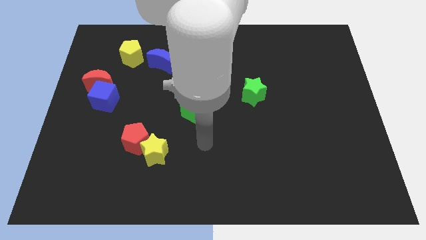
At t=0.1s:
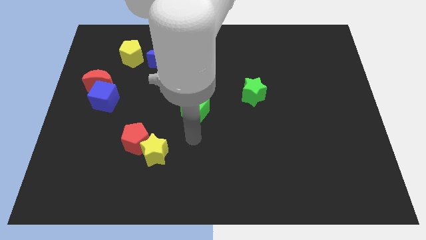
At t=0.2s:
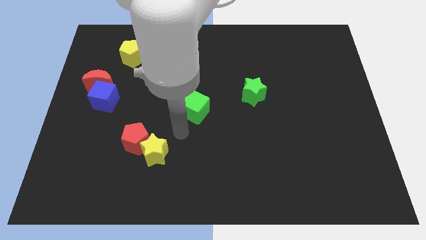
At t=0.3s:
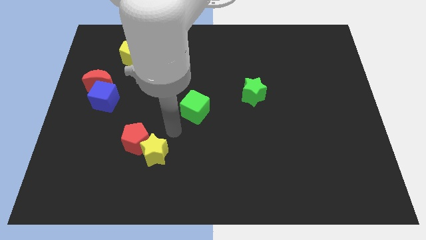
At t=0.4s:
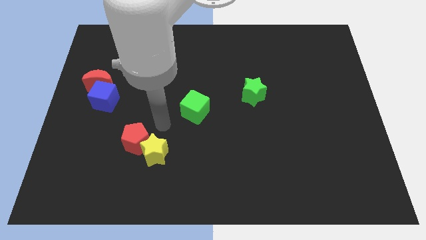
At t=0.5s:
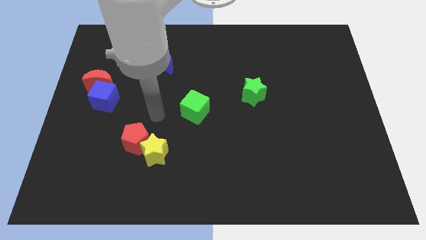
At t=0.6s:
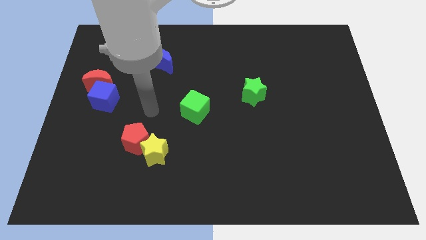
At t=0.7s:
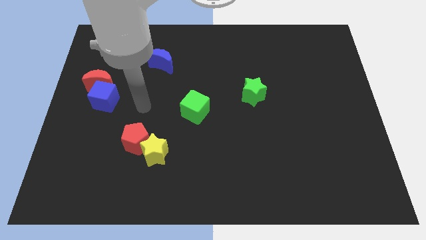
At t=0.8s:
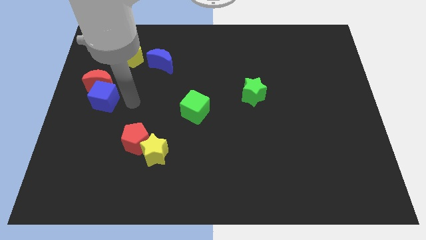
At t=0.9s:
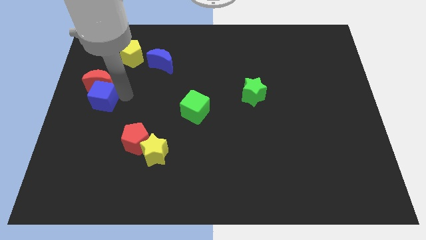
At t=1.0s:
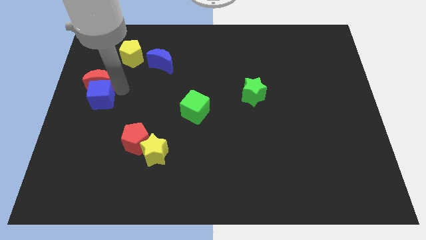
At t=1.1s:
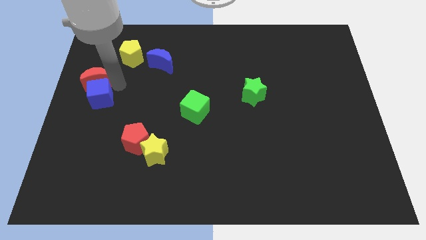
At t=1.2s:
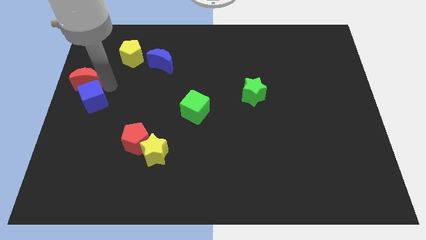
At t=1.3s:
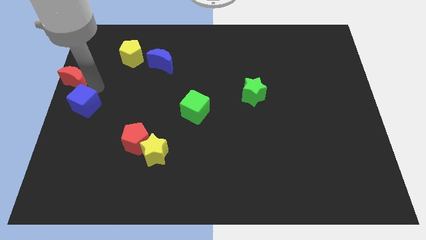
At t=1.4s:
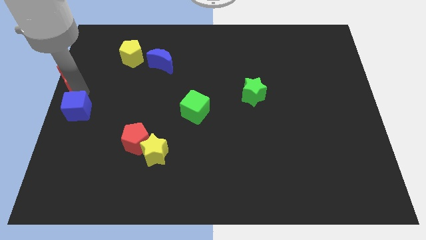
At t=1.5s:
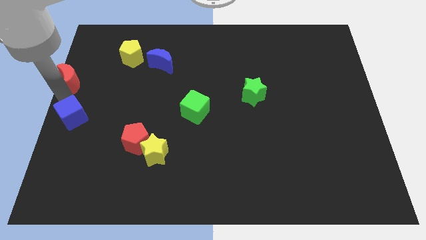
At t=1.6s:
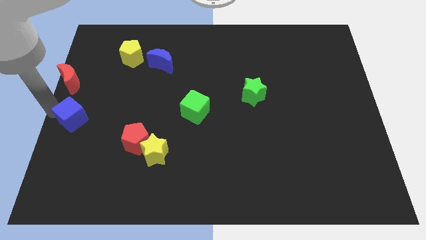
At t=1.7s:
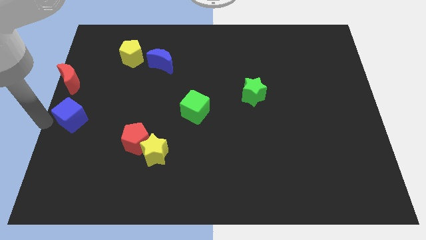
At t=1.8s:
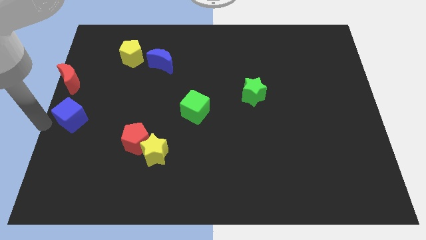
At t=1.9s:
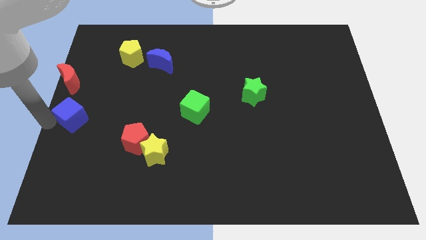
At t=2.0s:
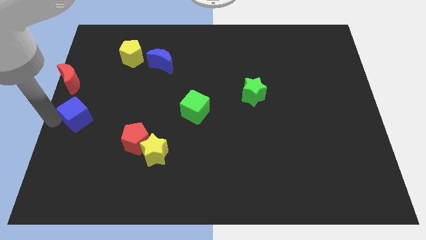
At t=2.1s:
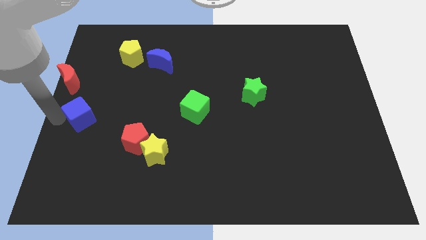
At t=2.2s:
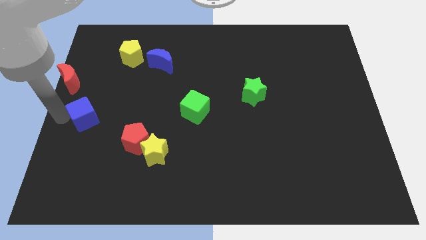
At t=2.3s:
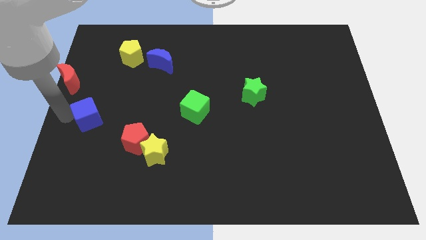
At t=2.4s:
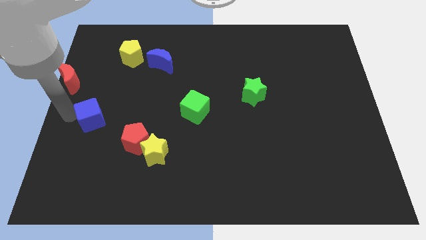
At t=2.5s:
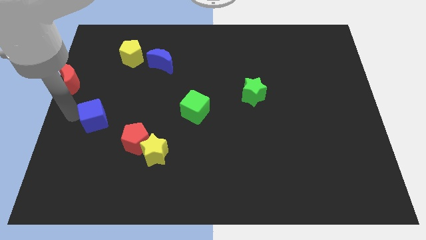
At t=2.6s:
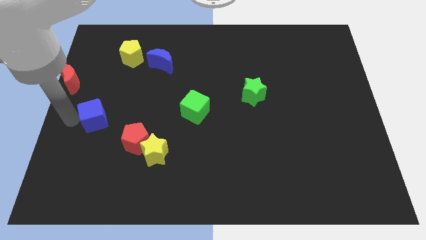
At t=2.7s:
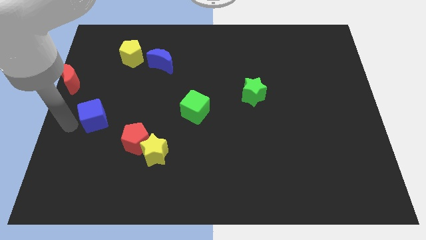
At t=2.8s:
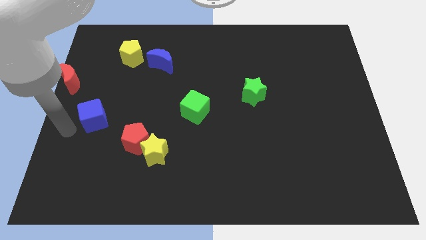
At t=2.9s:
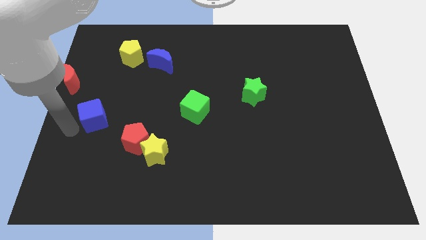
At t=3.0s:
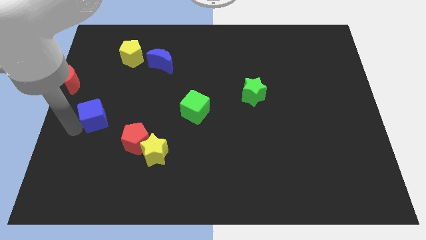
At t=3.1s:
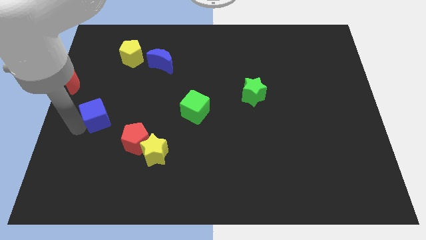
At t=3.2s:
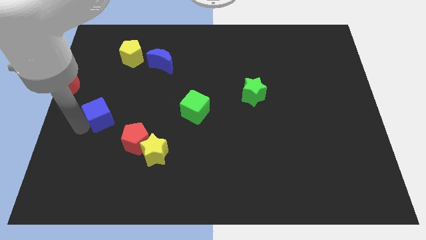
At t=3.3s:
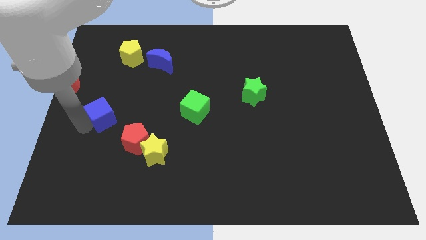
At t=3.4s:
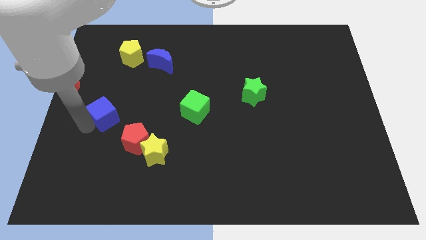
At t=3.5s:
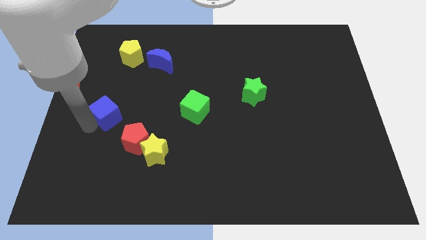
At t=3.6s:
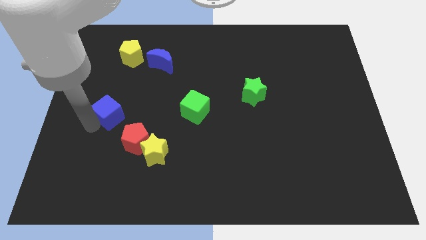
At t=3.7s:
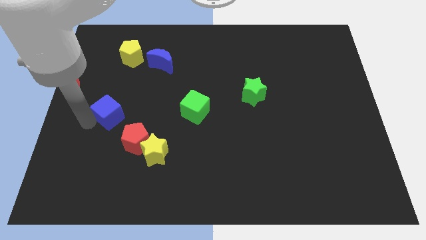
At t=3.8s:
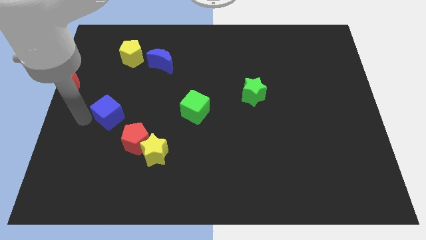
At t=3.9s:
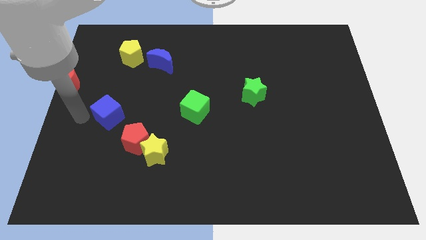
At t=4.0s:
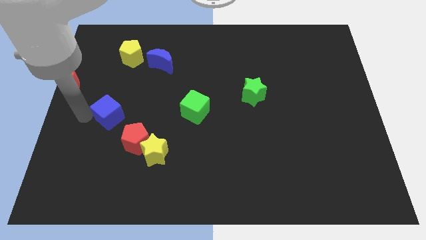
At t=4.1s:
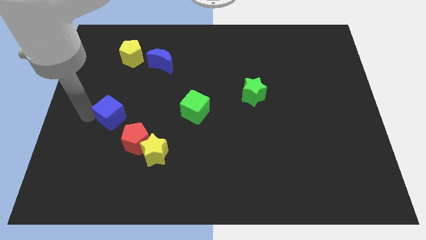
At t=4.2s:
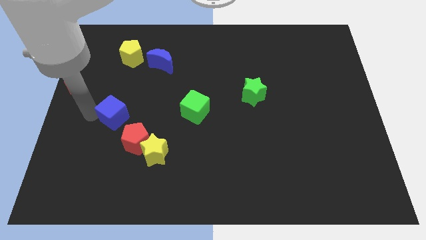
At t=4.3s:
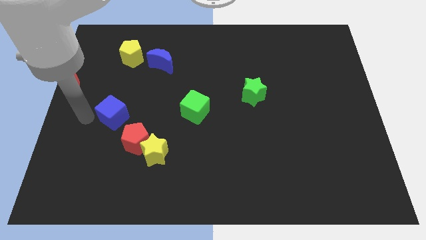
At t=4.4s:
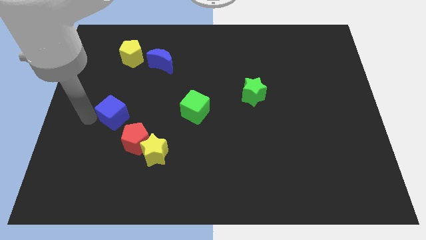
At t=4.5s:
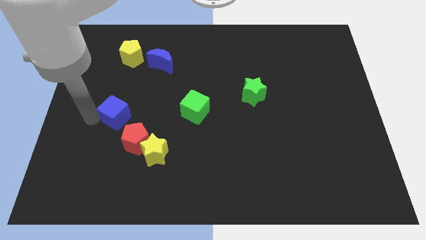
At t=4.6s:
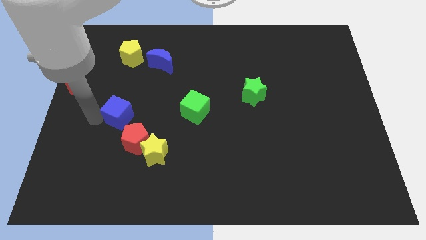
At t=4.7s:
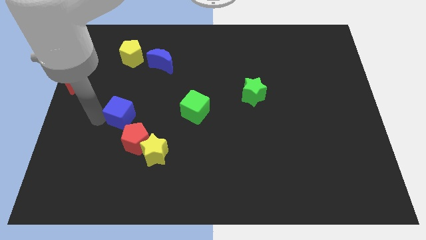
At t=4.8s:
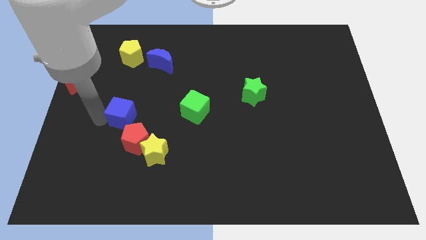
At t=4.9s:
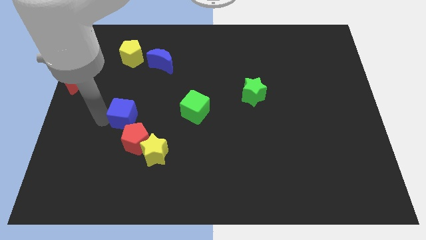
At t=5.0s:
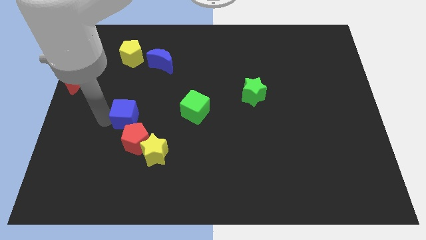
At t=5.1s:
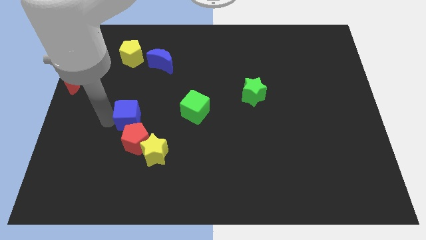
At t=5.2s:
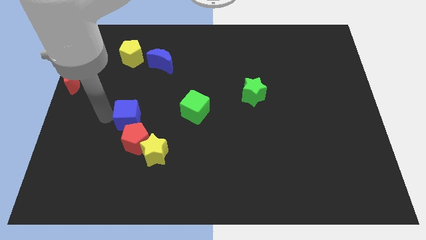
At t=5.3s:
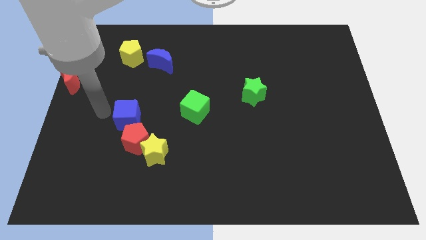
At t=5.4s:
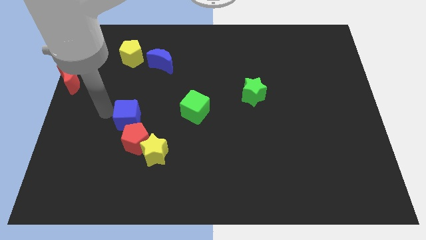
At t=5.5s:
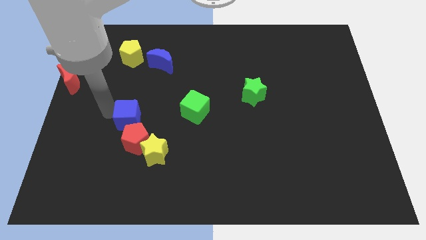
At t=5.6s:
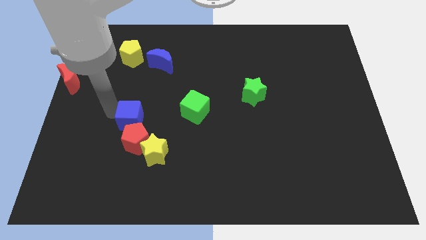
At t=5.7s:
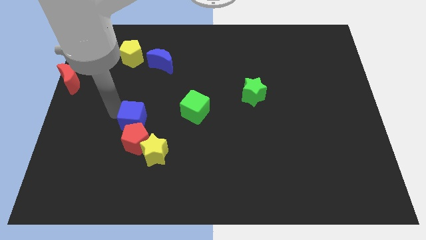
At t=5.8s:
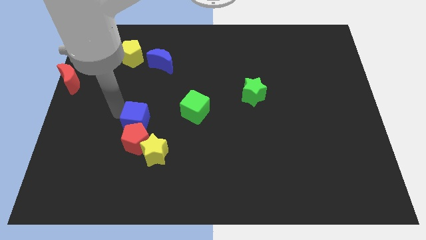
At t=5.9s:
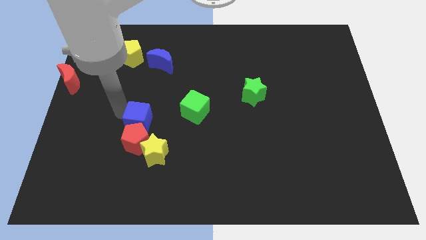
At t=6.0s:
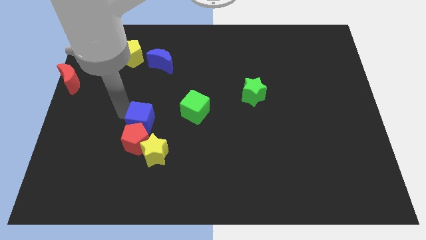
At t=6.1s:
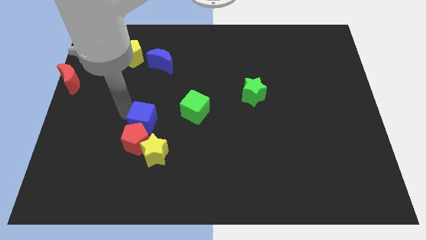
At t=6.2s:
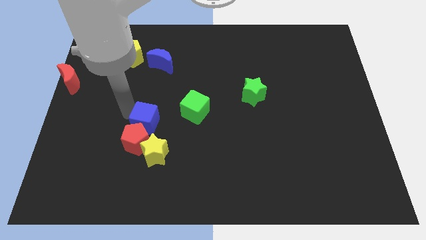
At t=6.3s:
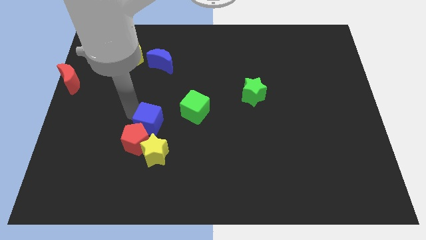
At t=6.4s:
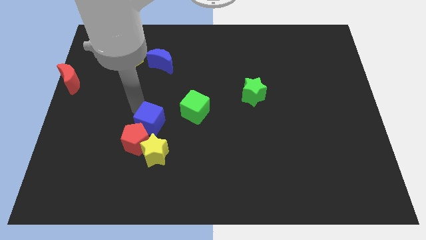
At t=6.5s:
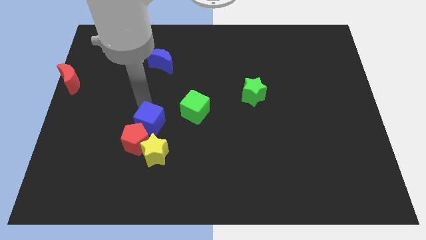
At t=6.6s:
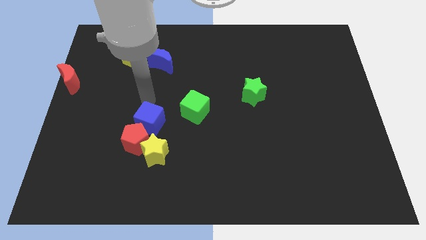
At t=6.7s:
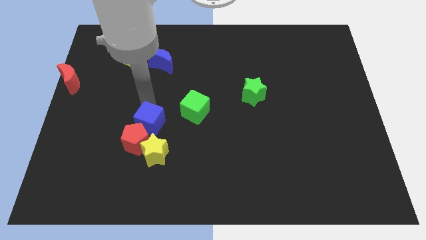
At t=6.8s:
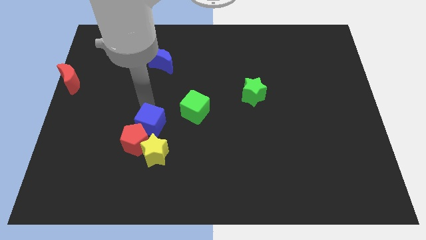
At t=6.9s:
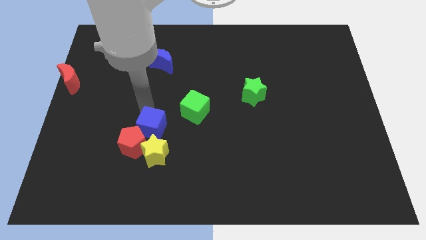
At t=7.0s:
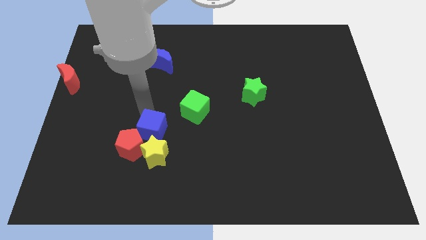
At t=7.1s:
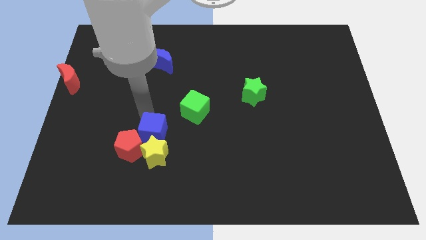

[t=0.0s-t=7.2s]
put the blue cube to the yellow star
